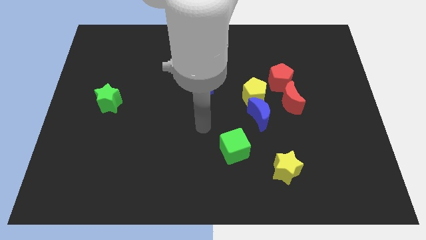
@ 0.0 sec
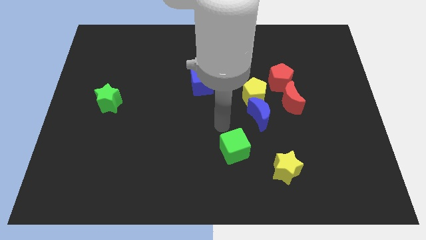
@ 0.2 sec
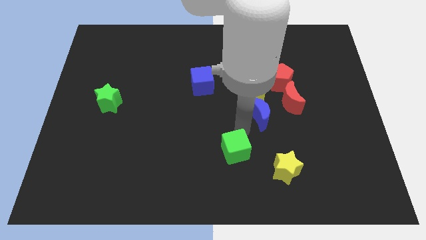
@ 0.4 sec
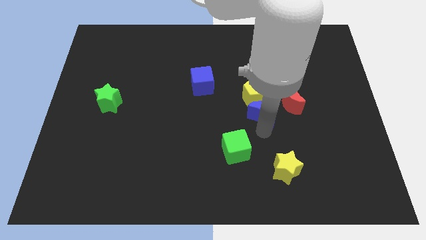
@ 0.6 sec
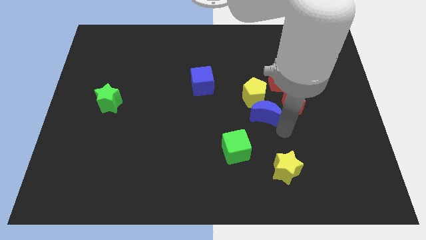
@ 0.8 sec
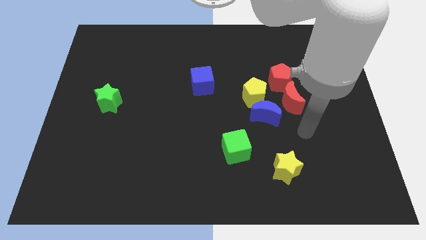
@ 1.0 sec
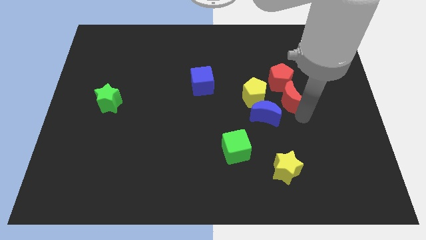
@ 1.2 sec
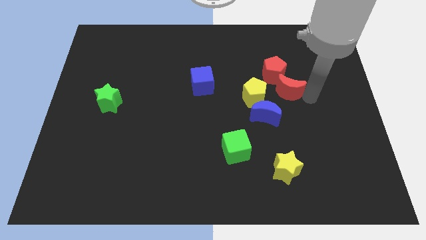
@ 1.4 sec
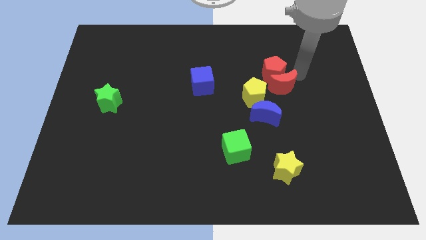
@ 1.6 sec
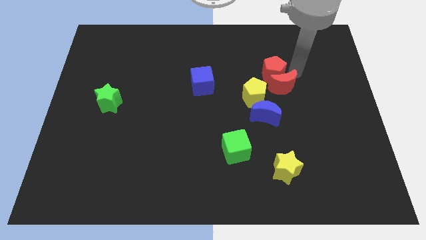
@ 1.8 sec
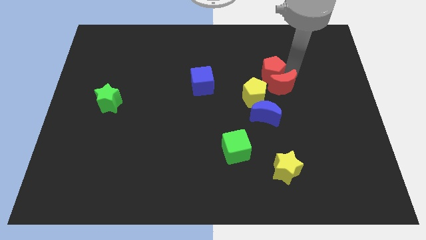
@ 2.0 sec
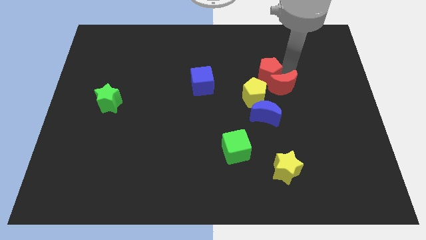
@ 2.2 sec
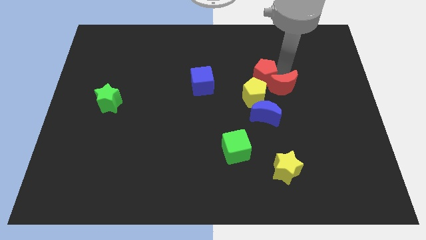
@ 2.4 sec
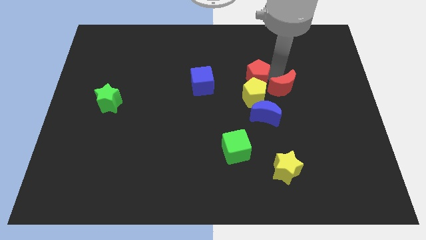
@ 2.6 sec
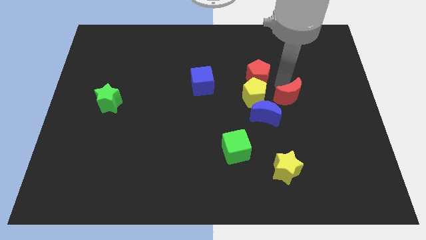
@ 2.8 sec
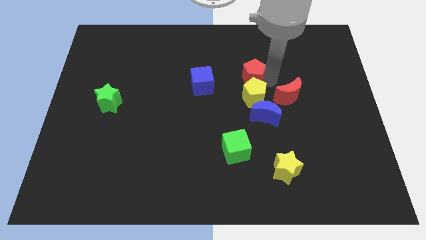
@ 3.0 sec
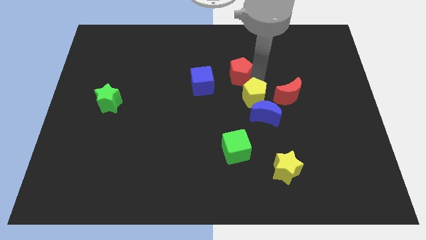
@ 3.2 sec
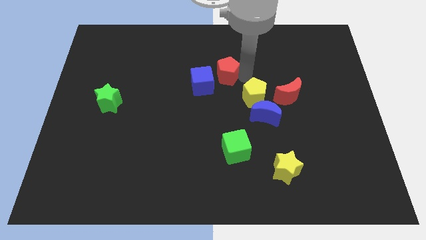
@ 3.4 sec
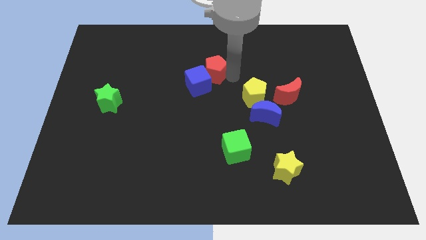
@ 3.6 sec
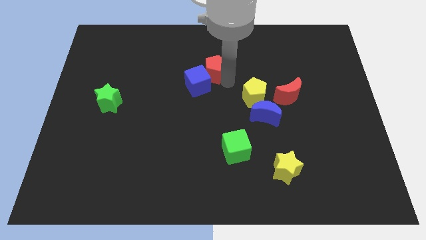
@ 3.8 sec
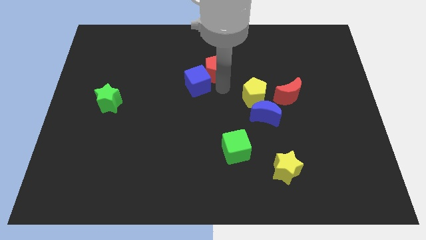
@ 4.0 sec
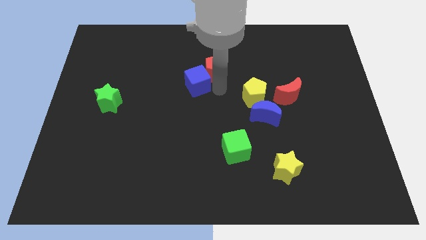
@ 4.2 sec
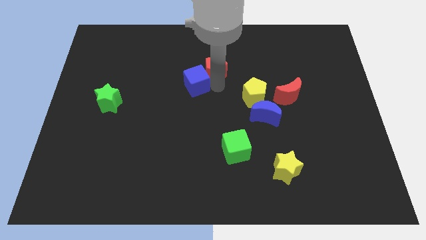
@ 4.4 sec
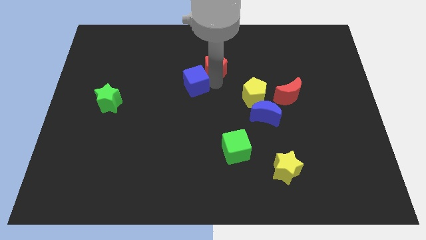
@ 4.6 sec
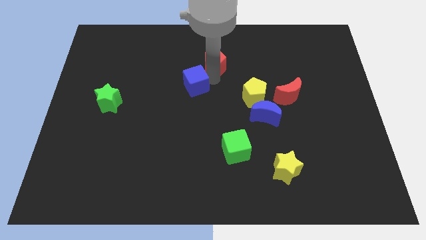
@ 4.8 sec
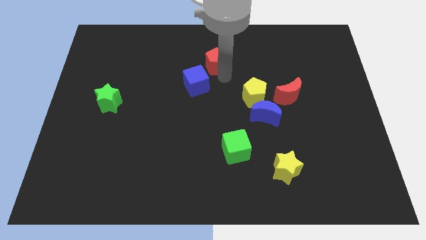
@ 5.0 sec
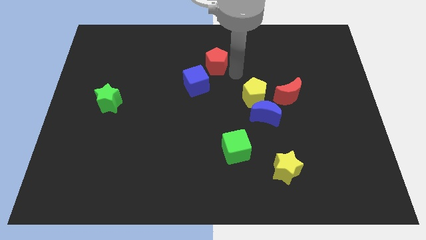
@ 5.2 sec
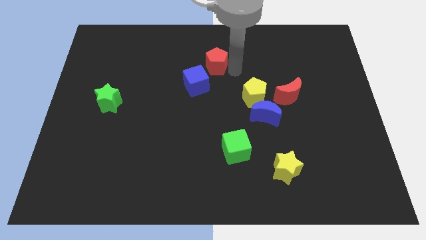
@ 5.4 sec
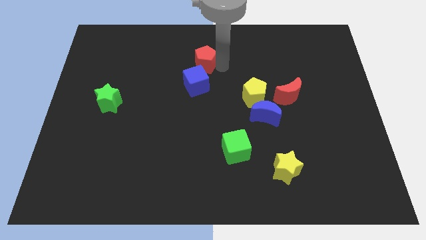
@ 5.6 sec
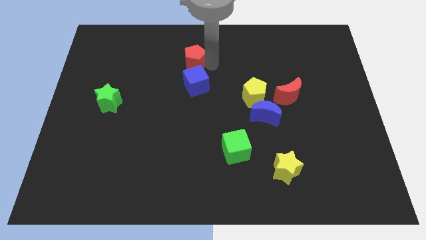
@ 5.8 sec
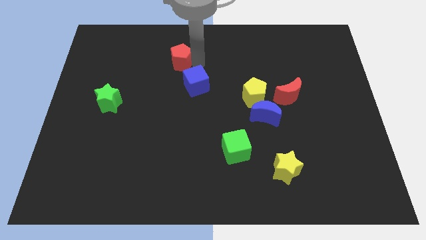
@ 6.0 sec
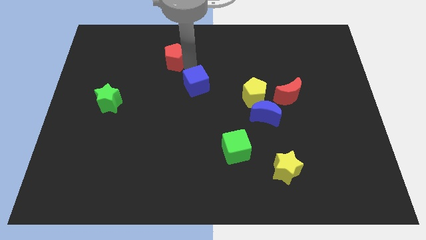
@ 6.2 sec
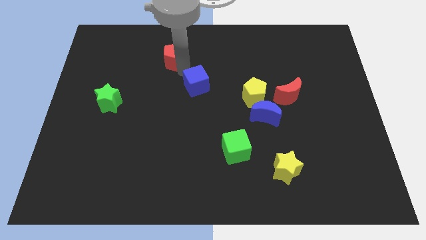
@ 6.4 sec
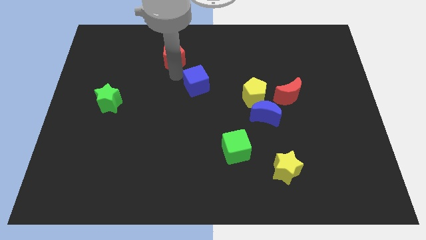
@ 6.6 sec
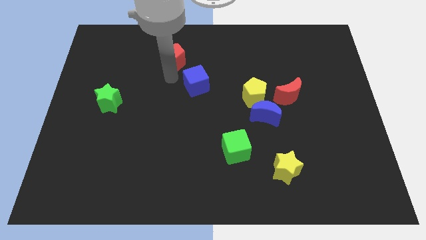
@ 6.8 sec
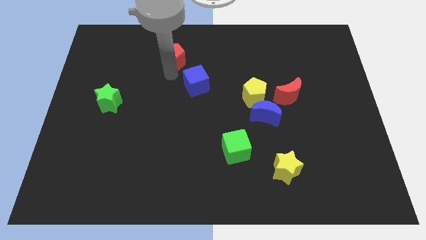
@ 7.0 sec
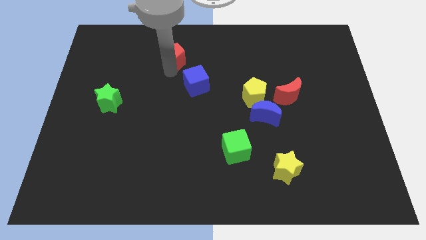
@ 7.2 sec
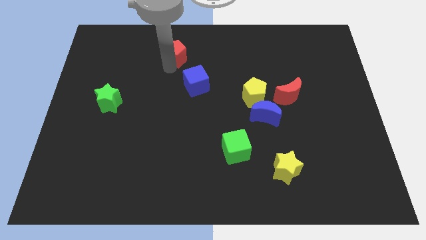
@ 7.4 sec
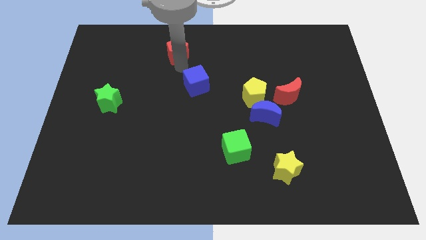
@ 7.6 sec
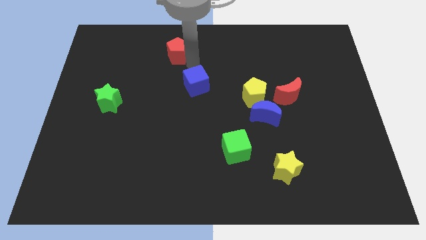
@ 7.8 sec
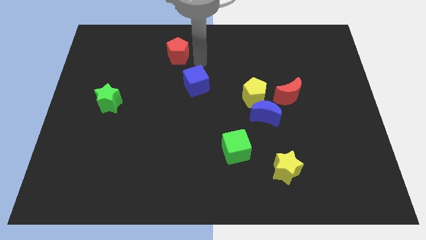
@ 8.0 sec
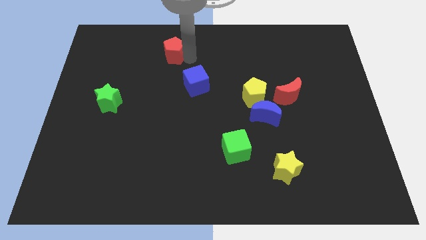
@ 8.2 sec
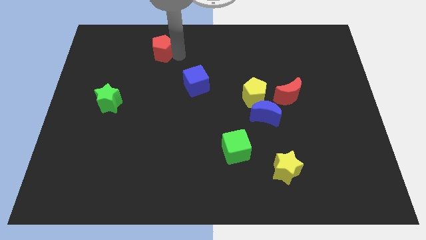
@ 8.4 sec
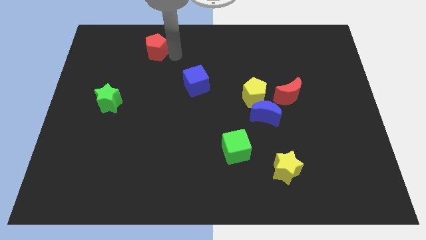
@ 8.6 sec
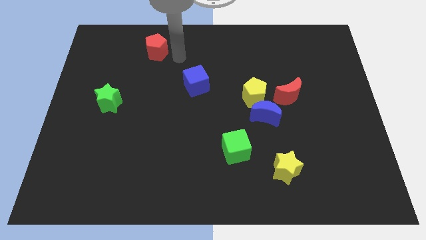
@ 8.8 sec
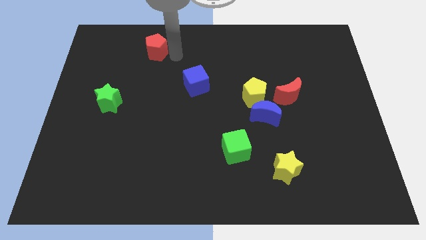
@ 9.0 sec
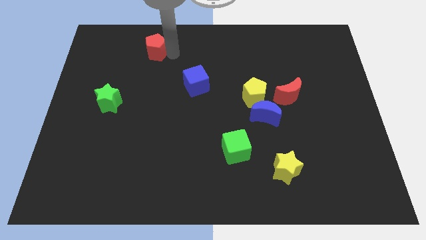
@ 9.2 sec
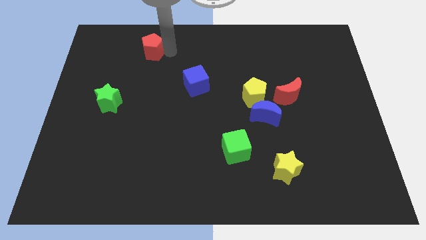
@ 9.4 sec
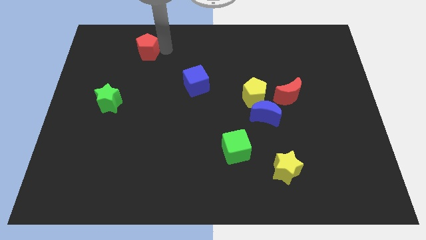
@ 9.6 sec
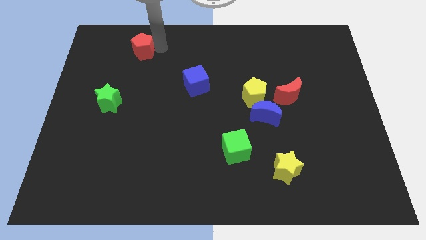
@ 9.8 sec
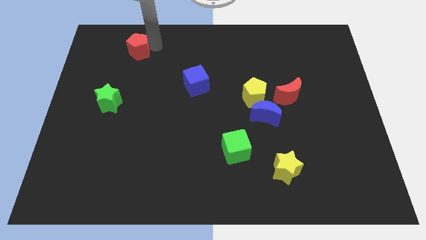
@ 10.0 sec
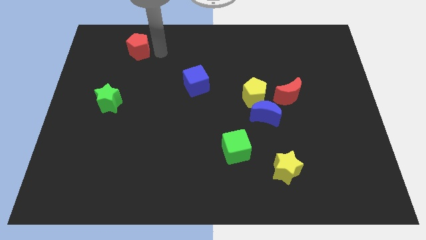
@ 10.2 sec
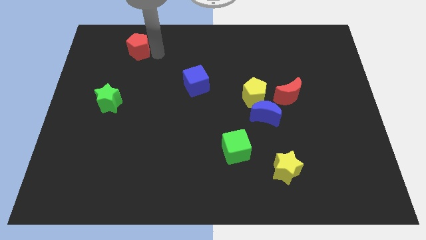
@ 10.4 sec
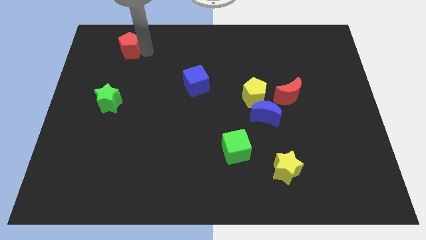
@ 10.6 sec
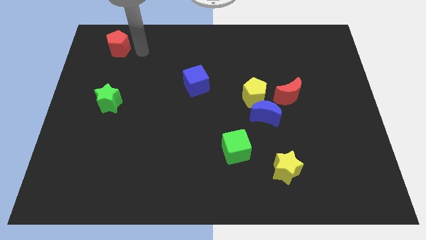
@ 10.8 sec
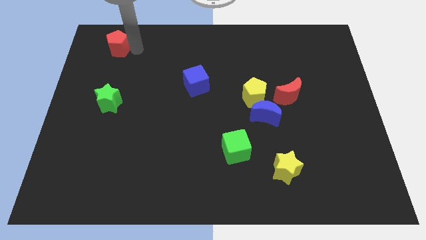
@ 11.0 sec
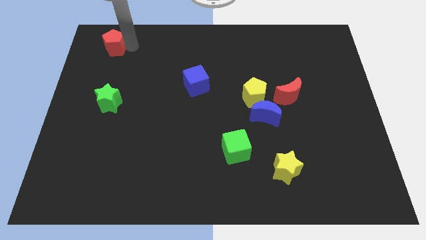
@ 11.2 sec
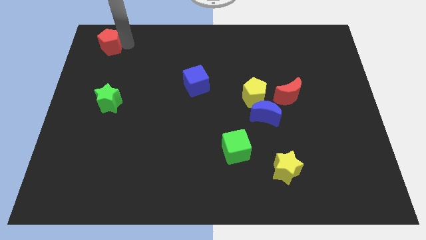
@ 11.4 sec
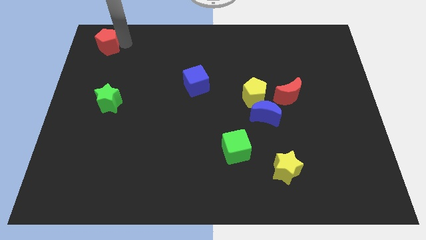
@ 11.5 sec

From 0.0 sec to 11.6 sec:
slide the red pentagon to the top left
